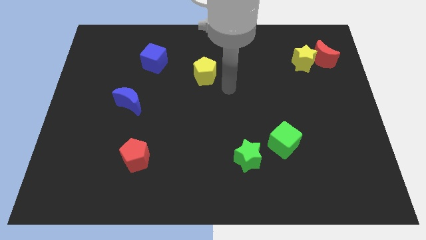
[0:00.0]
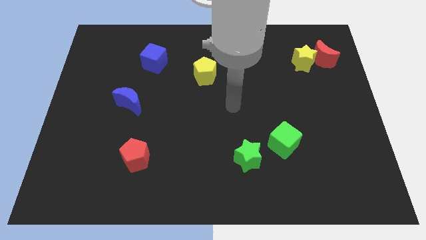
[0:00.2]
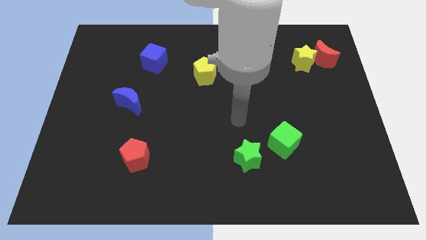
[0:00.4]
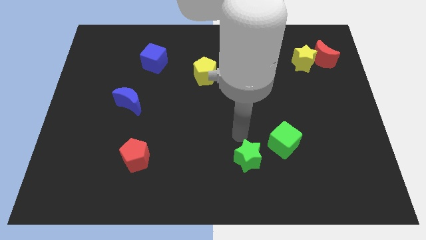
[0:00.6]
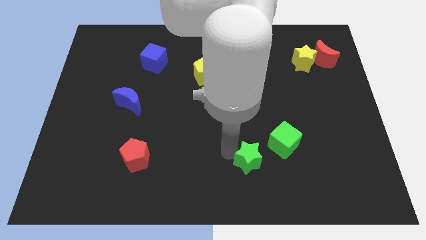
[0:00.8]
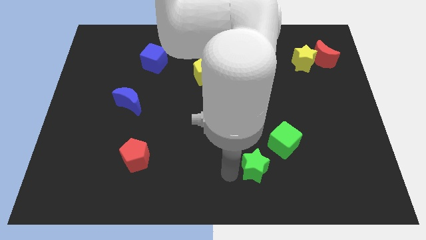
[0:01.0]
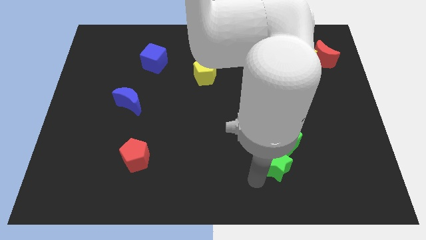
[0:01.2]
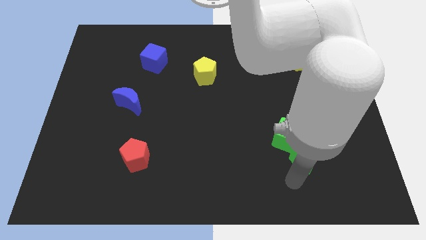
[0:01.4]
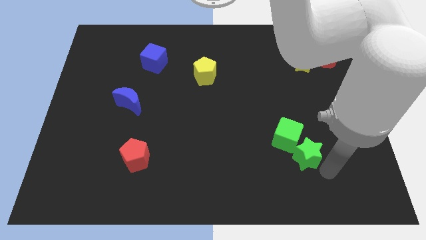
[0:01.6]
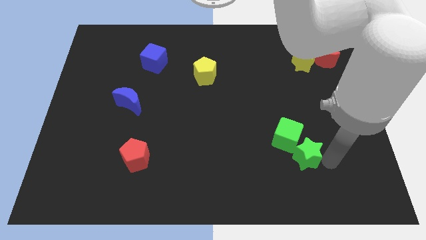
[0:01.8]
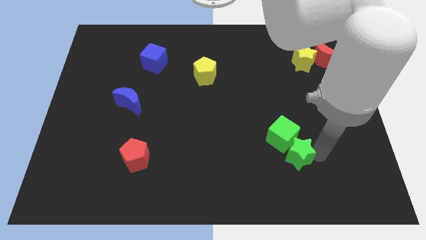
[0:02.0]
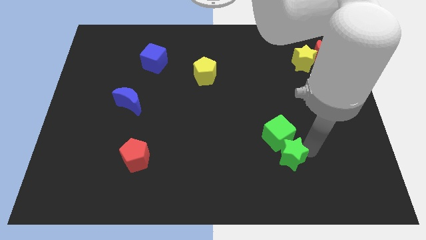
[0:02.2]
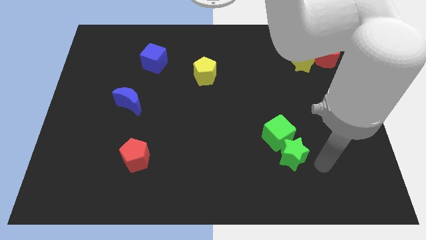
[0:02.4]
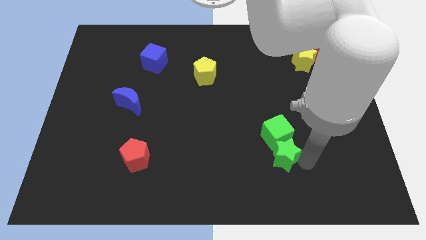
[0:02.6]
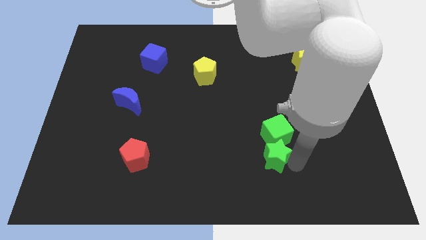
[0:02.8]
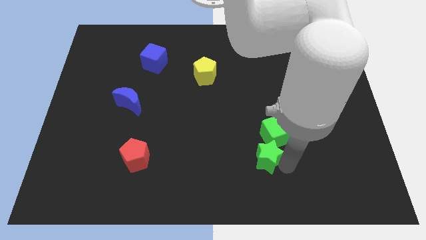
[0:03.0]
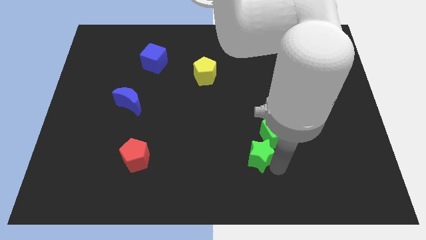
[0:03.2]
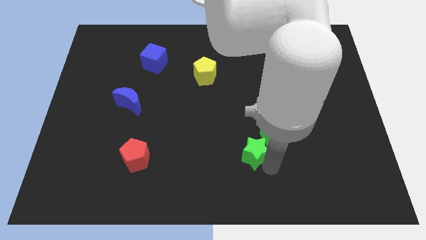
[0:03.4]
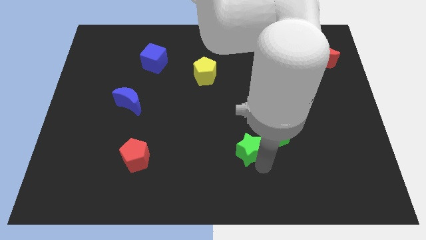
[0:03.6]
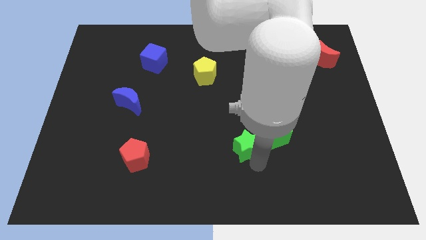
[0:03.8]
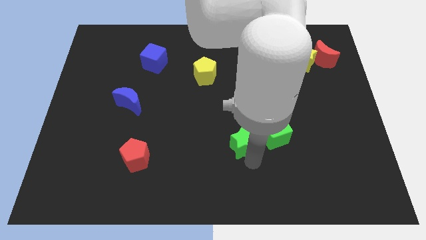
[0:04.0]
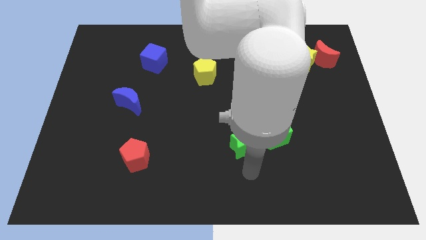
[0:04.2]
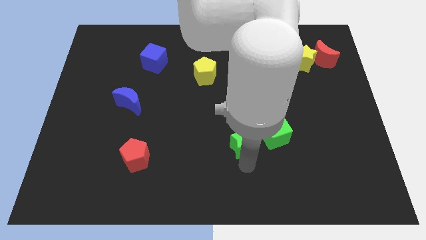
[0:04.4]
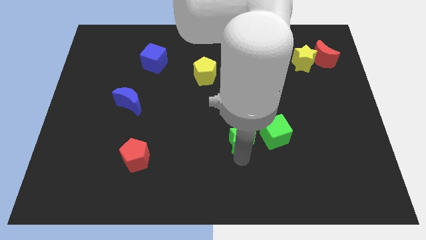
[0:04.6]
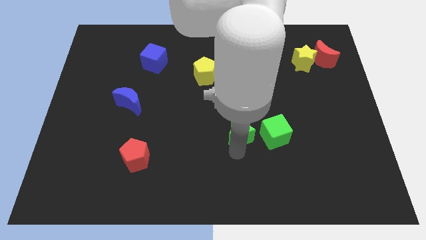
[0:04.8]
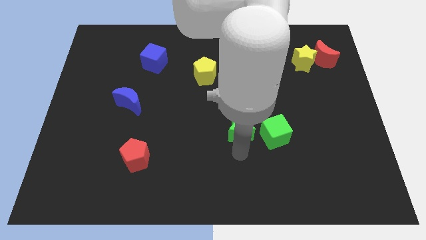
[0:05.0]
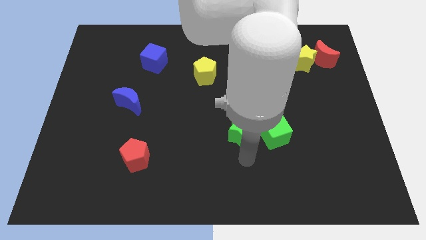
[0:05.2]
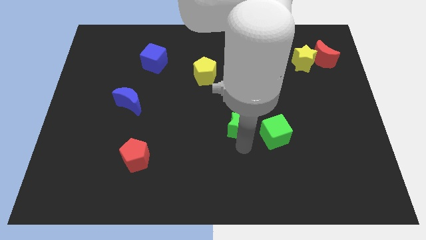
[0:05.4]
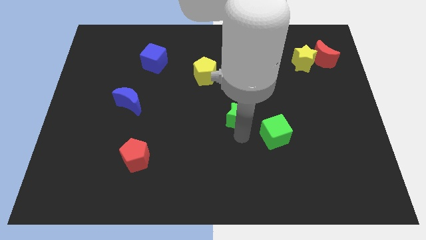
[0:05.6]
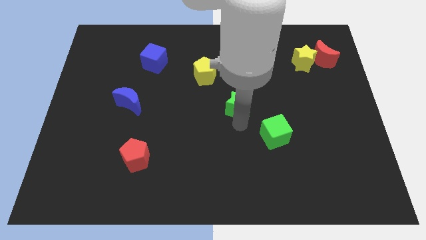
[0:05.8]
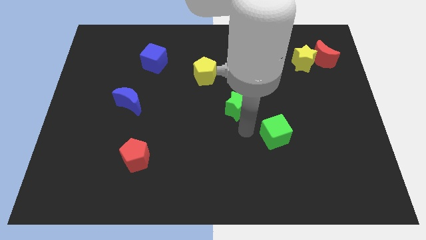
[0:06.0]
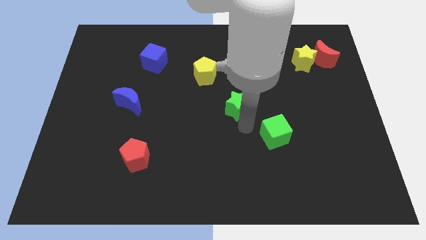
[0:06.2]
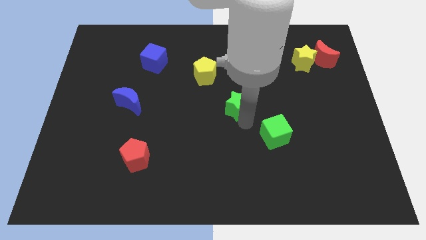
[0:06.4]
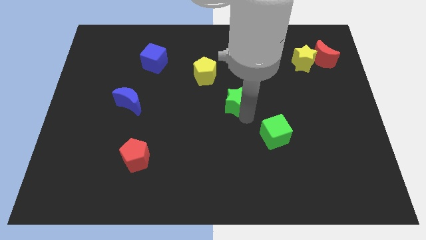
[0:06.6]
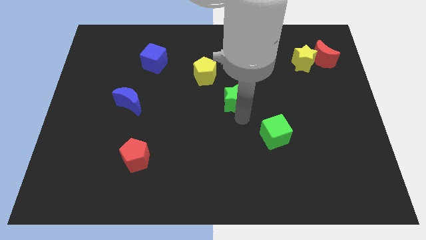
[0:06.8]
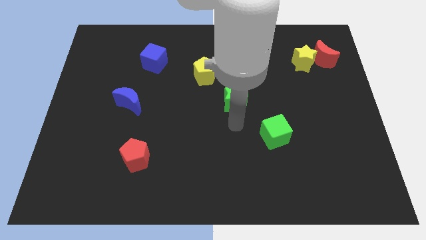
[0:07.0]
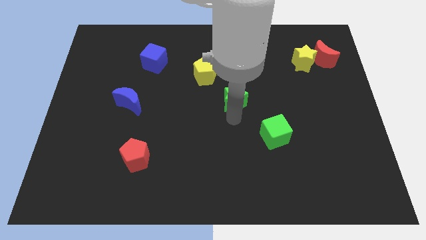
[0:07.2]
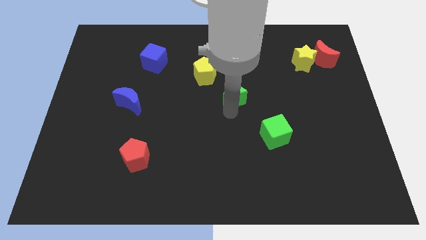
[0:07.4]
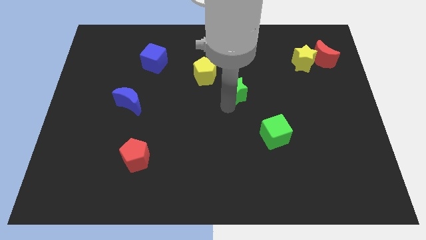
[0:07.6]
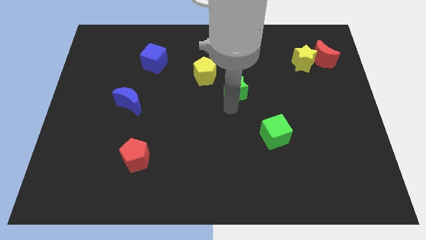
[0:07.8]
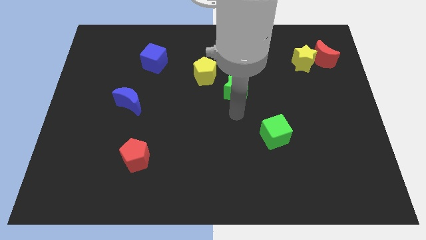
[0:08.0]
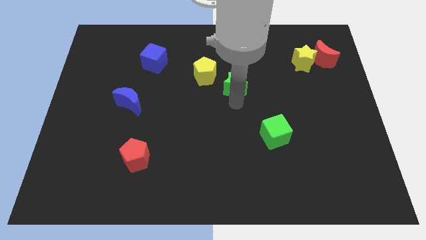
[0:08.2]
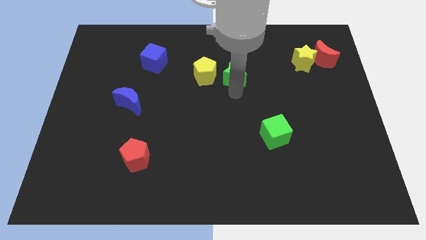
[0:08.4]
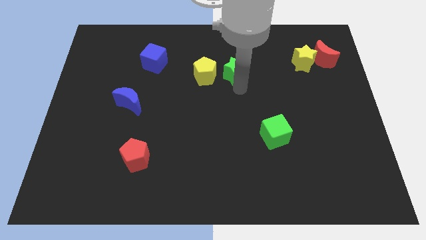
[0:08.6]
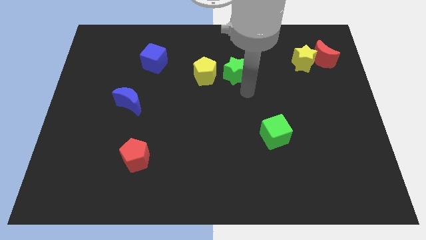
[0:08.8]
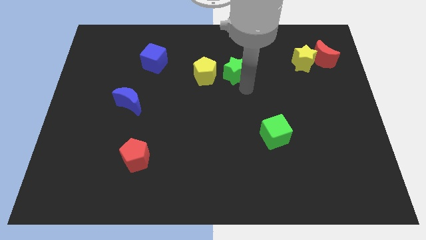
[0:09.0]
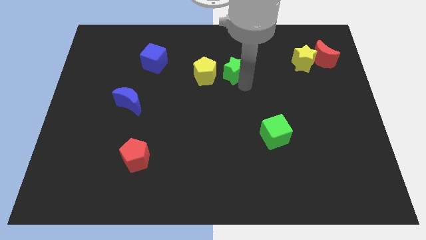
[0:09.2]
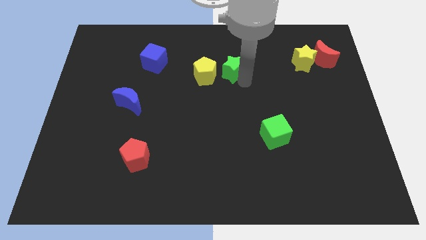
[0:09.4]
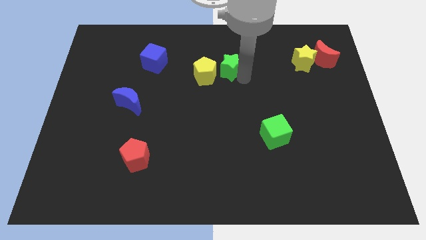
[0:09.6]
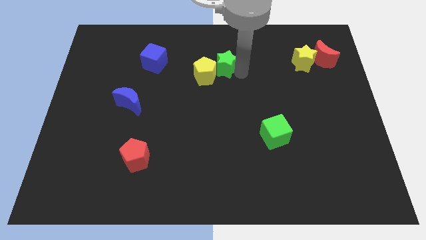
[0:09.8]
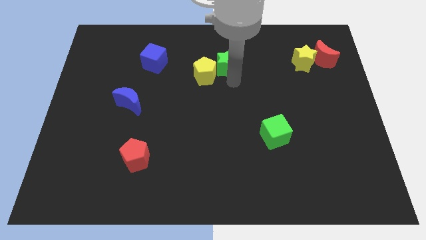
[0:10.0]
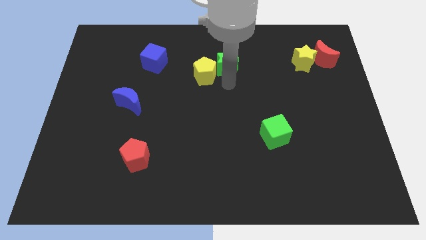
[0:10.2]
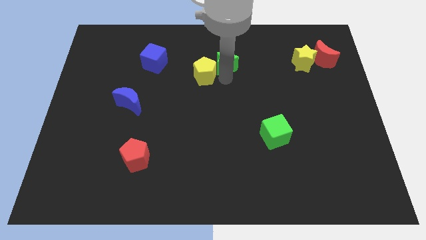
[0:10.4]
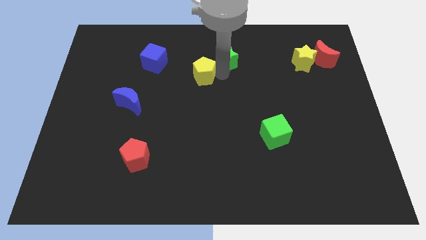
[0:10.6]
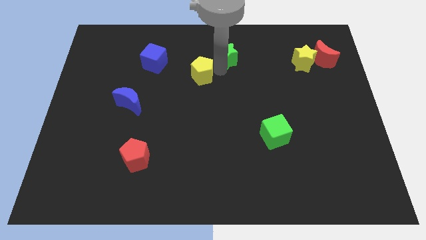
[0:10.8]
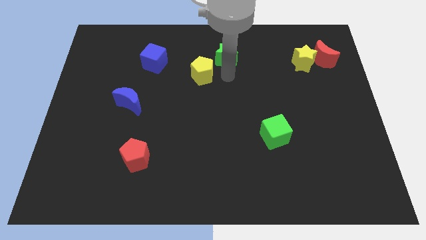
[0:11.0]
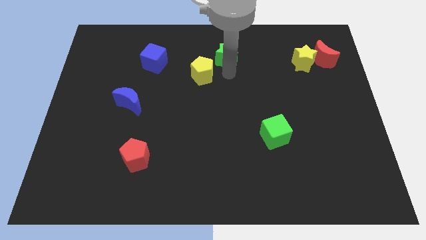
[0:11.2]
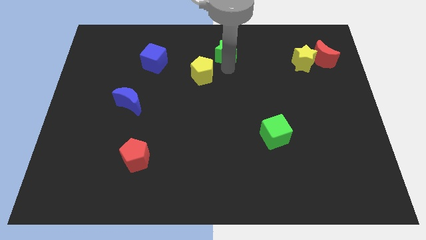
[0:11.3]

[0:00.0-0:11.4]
slide the green star to the top side

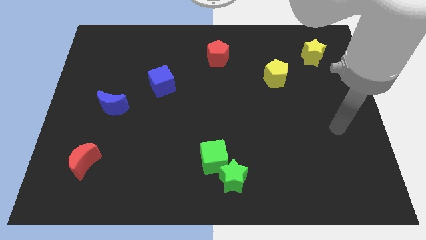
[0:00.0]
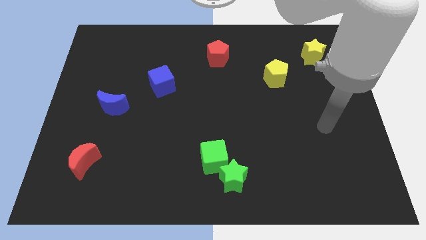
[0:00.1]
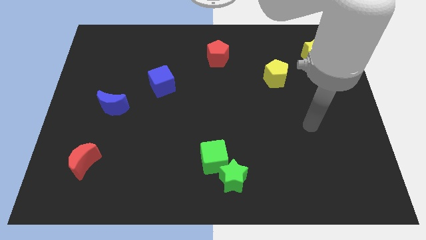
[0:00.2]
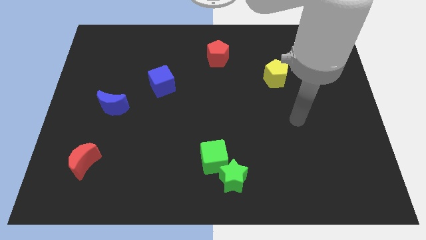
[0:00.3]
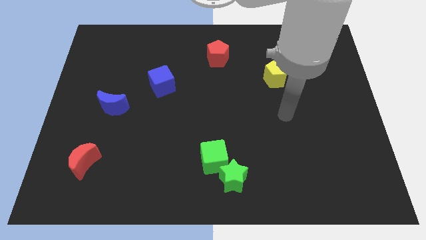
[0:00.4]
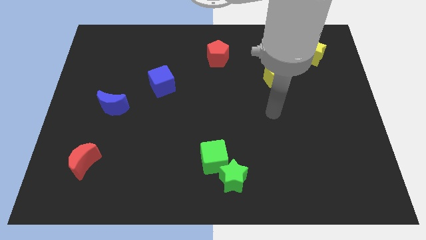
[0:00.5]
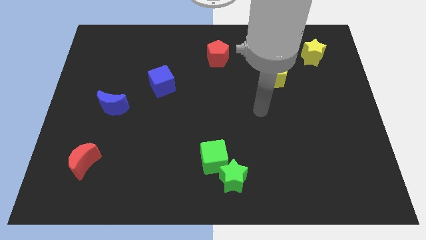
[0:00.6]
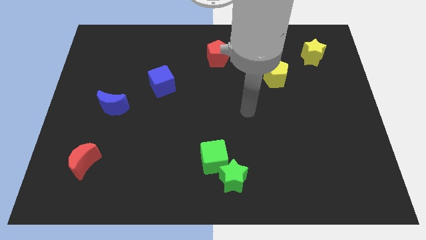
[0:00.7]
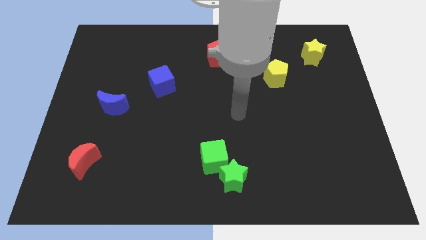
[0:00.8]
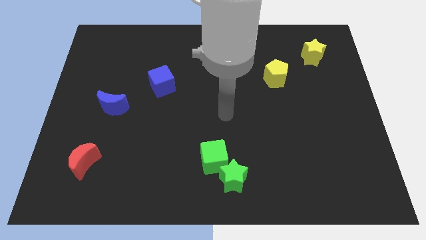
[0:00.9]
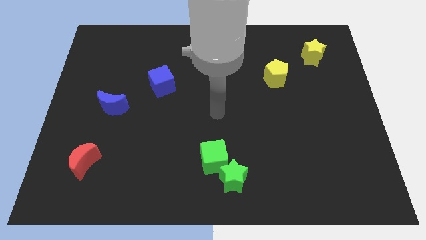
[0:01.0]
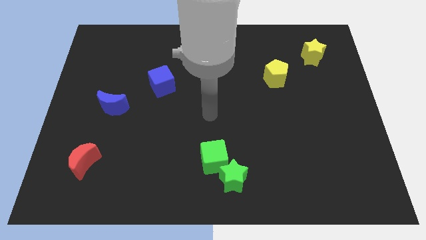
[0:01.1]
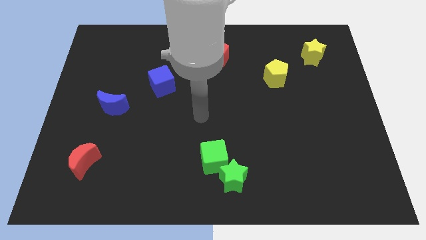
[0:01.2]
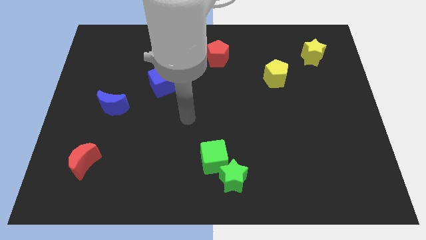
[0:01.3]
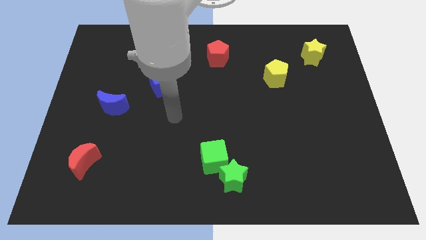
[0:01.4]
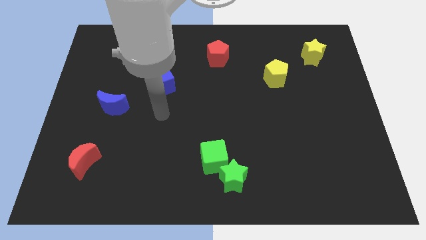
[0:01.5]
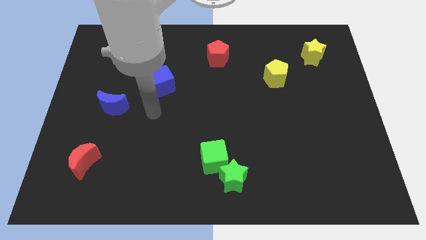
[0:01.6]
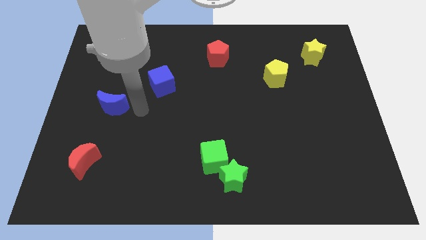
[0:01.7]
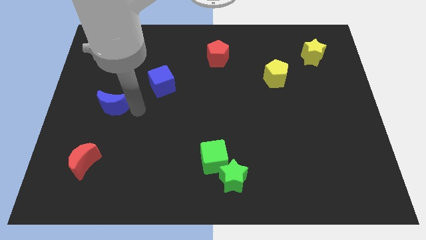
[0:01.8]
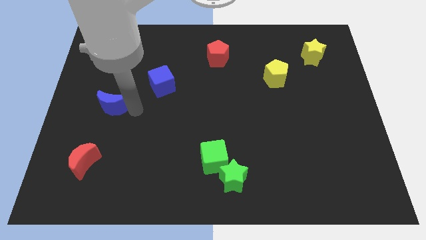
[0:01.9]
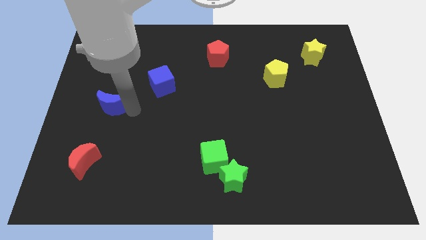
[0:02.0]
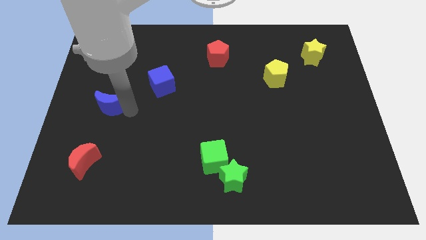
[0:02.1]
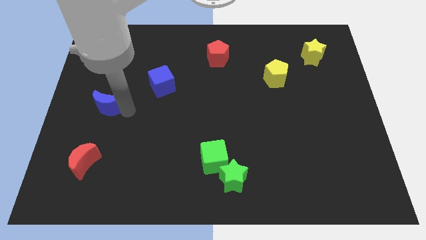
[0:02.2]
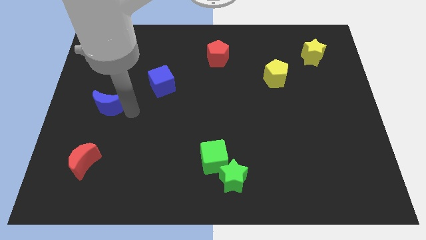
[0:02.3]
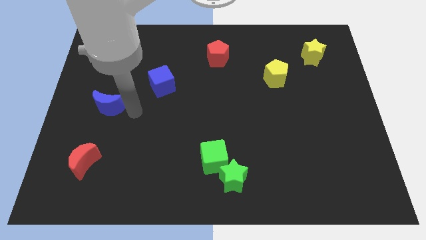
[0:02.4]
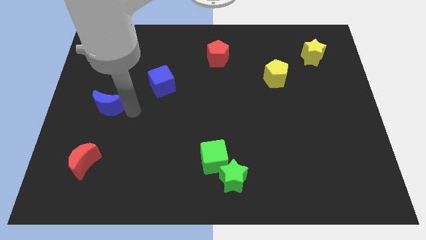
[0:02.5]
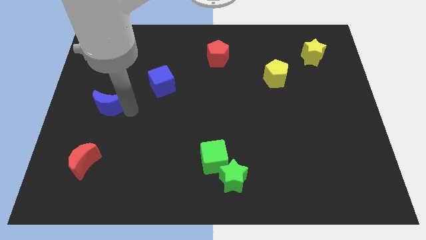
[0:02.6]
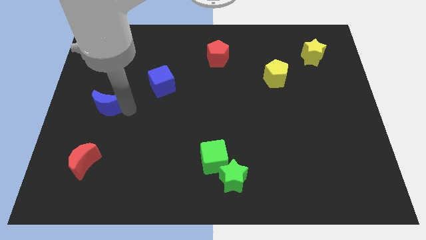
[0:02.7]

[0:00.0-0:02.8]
push the blue moon to the left side of the board
